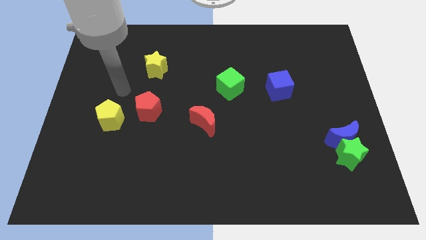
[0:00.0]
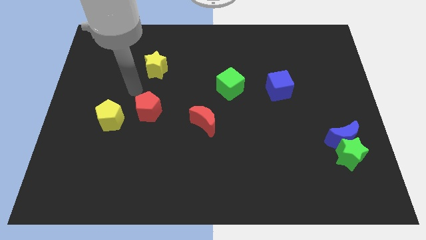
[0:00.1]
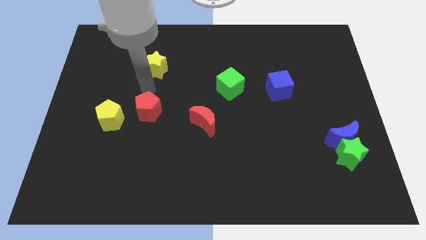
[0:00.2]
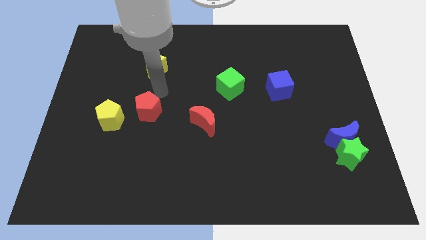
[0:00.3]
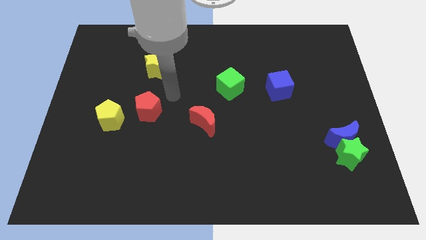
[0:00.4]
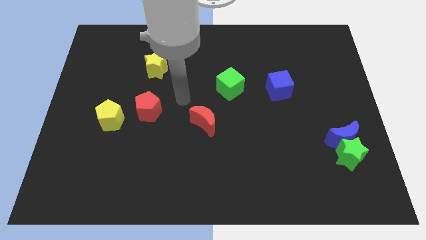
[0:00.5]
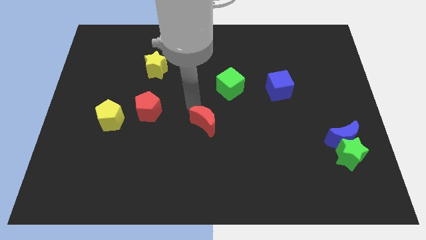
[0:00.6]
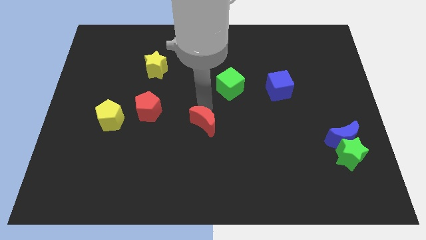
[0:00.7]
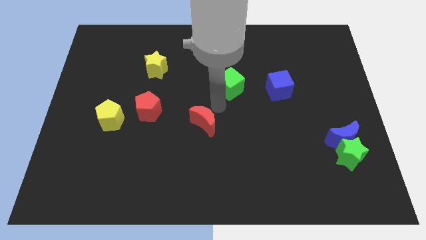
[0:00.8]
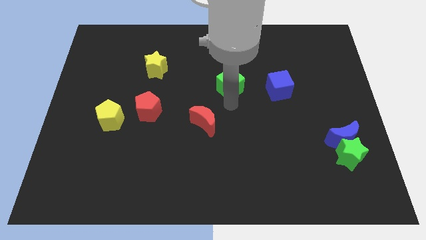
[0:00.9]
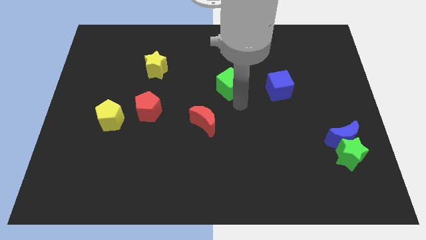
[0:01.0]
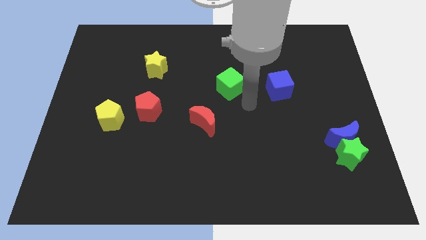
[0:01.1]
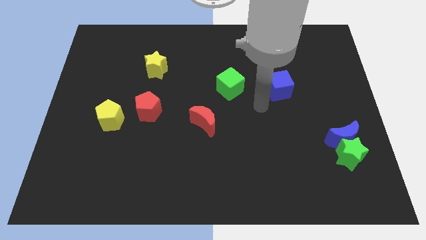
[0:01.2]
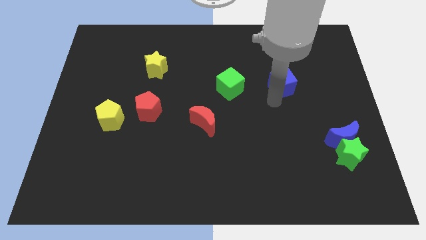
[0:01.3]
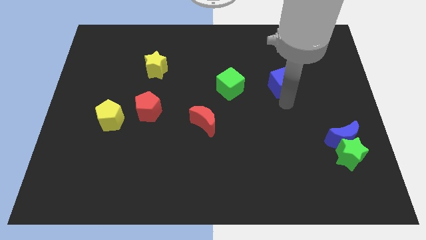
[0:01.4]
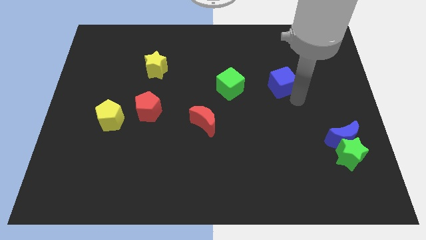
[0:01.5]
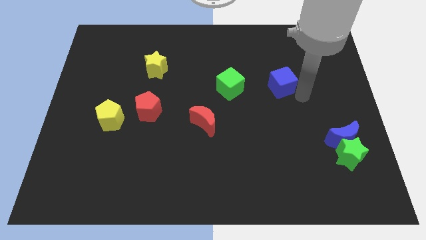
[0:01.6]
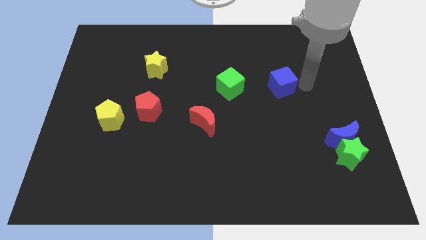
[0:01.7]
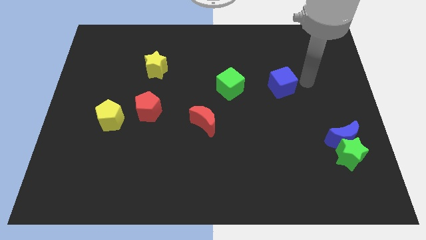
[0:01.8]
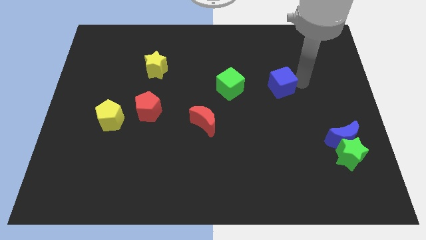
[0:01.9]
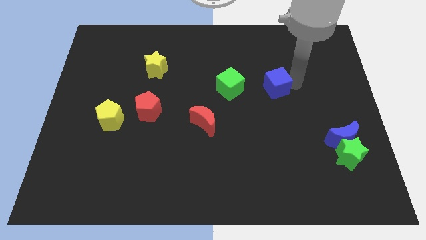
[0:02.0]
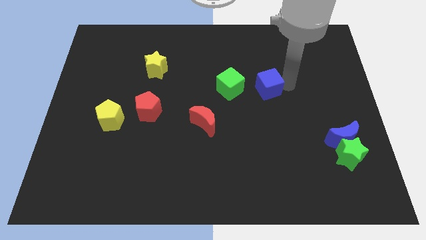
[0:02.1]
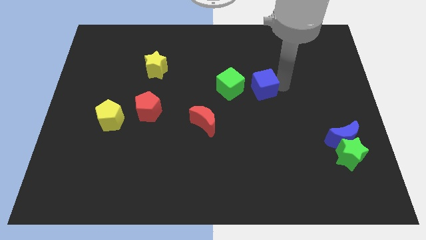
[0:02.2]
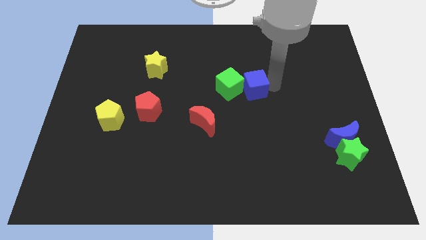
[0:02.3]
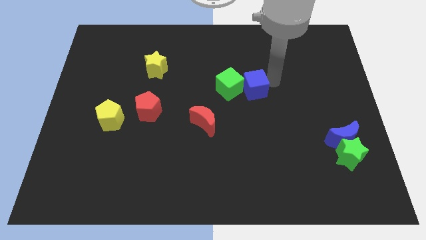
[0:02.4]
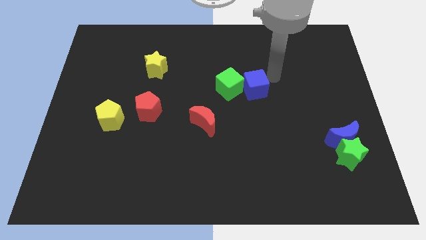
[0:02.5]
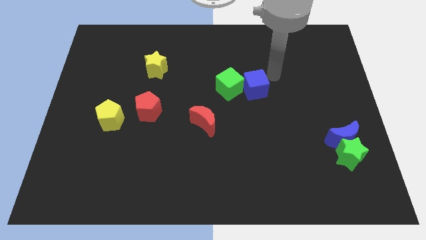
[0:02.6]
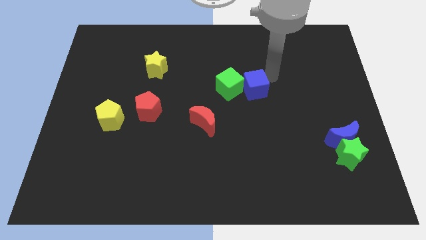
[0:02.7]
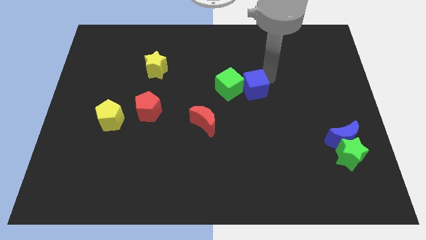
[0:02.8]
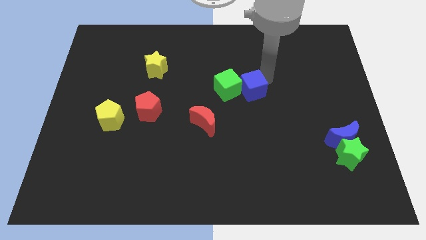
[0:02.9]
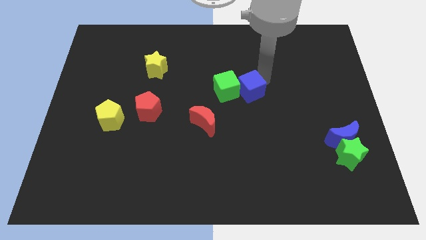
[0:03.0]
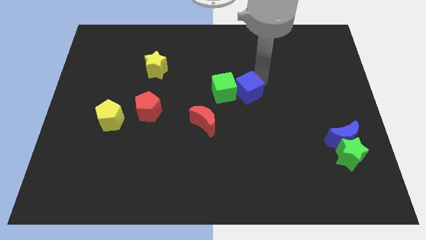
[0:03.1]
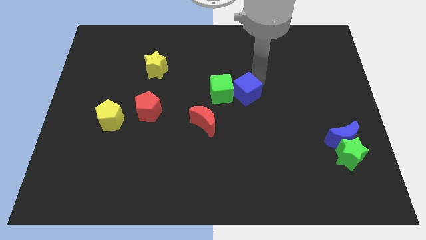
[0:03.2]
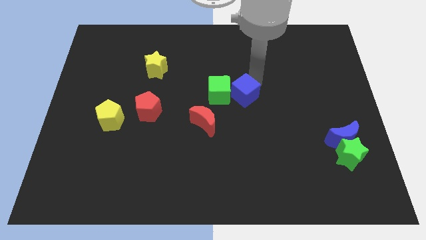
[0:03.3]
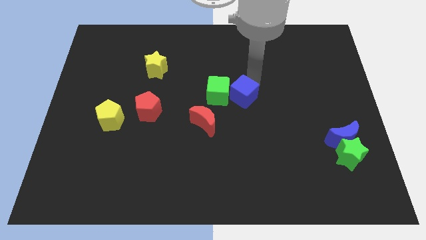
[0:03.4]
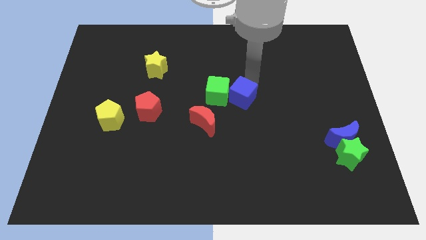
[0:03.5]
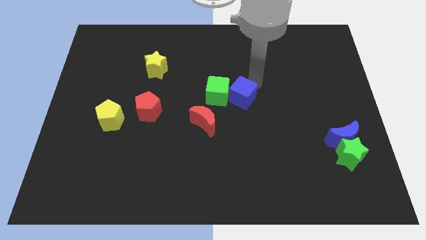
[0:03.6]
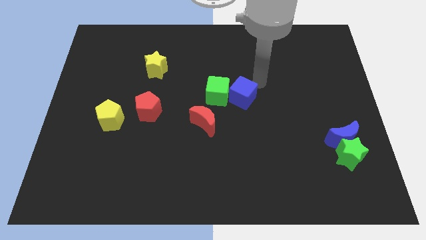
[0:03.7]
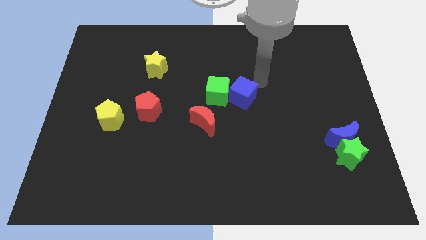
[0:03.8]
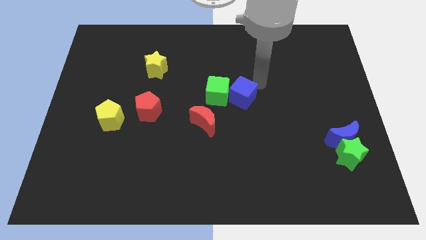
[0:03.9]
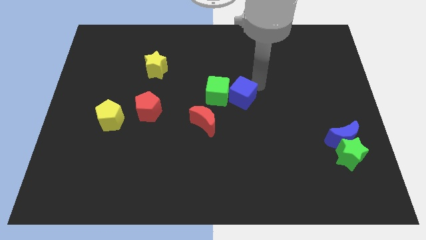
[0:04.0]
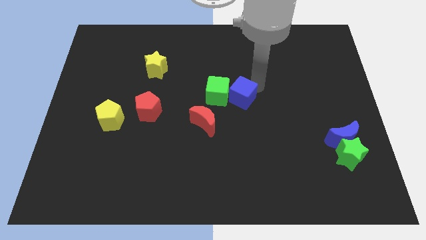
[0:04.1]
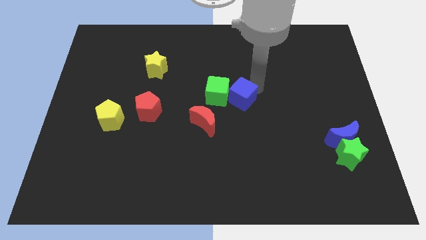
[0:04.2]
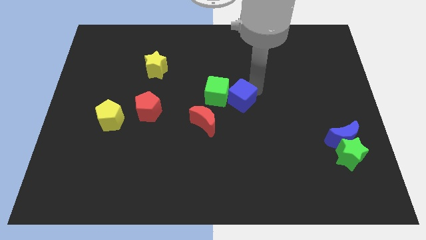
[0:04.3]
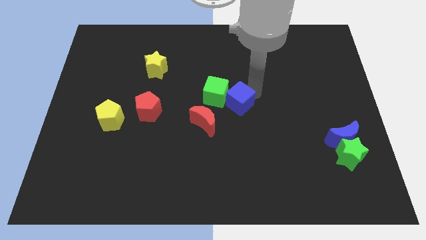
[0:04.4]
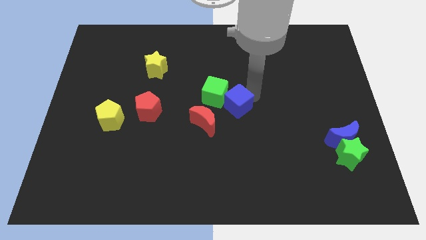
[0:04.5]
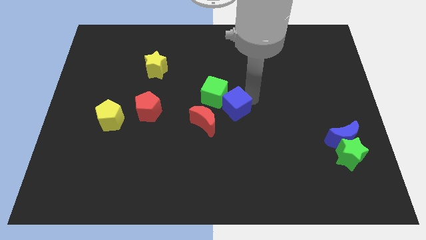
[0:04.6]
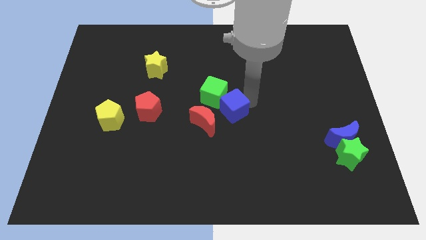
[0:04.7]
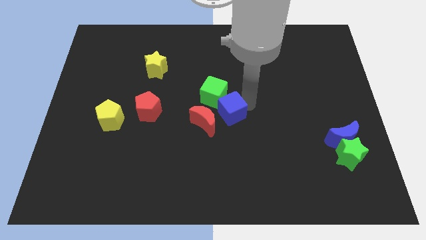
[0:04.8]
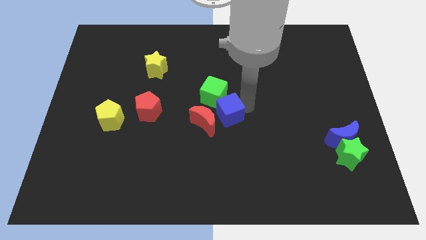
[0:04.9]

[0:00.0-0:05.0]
move the blue cube next to the red moon

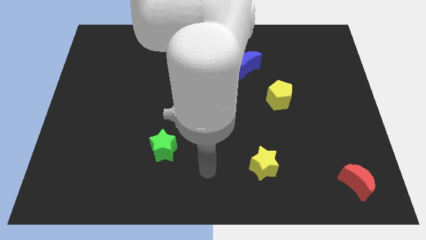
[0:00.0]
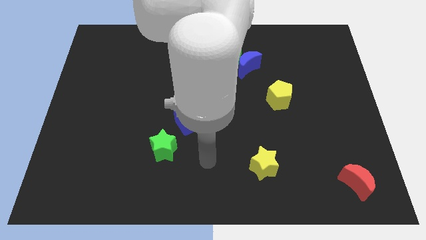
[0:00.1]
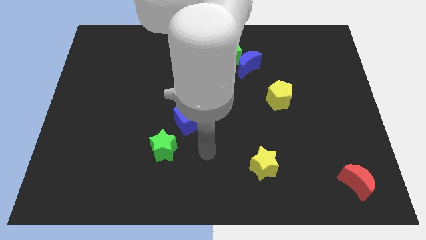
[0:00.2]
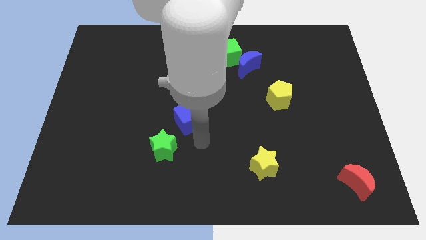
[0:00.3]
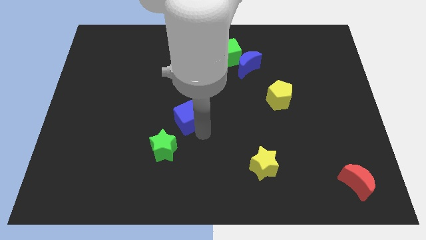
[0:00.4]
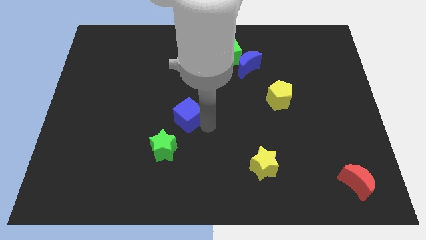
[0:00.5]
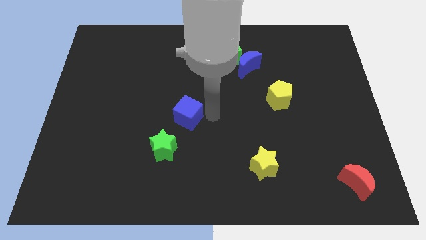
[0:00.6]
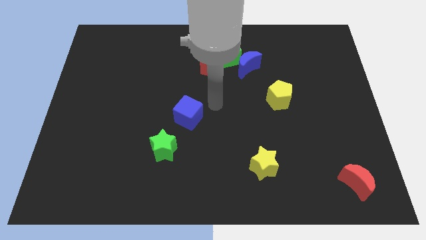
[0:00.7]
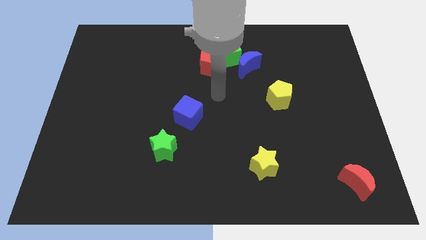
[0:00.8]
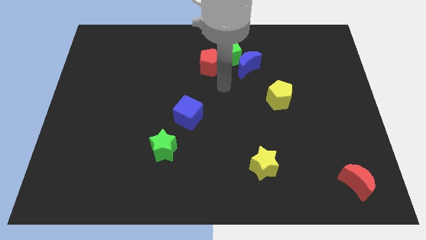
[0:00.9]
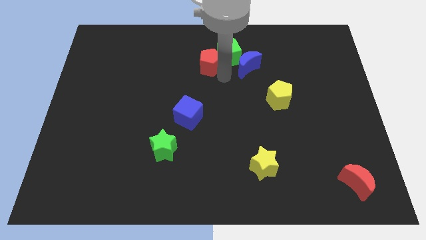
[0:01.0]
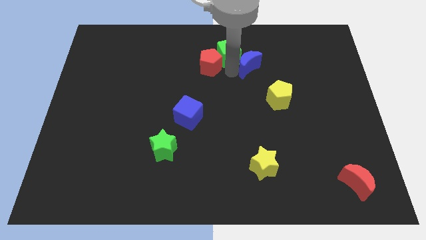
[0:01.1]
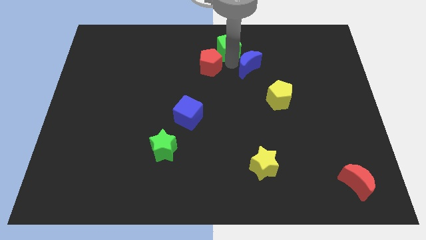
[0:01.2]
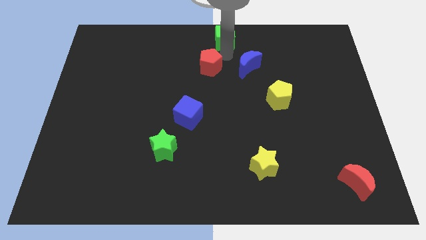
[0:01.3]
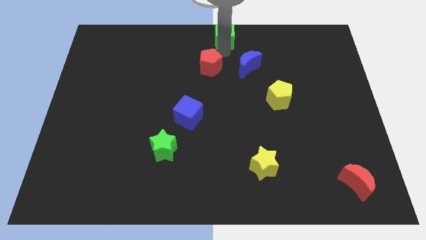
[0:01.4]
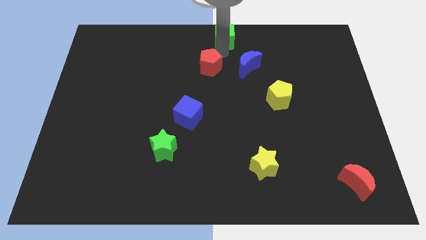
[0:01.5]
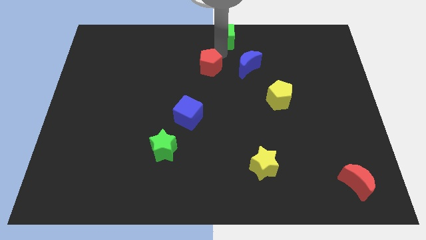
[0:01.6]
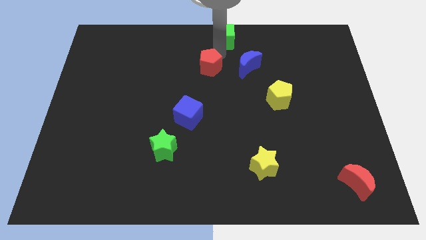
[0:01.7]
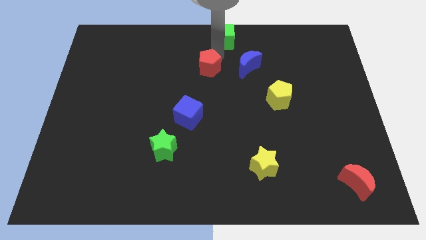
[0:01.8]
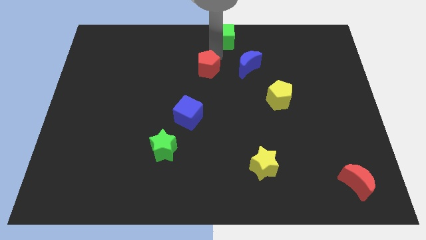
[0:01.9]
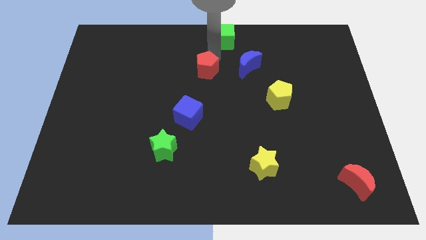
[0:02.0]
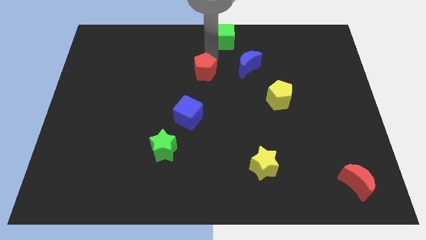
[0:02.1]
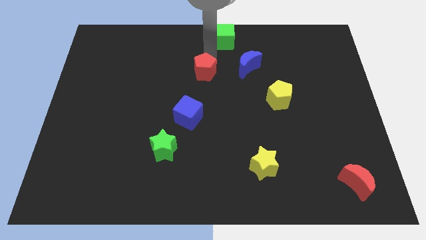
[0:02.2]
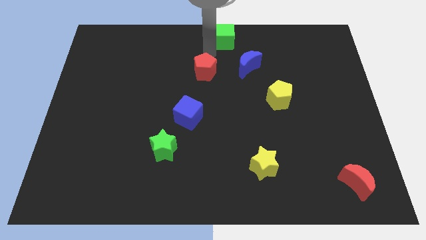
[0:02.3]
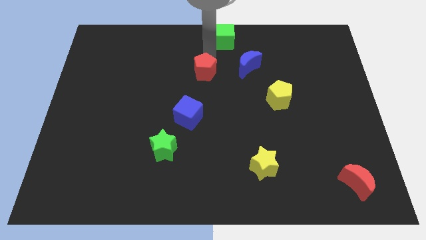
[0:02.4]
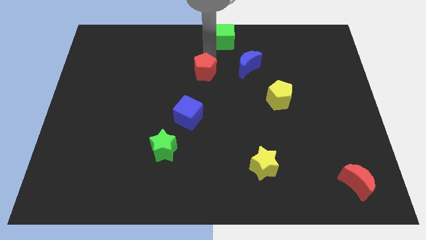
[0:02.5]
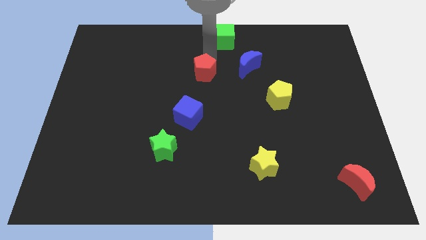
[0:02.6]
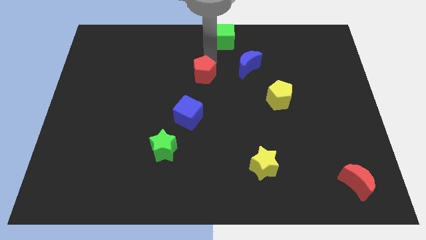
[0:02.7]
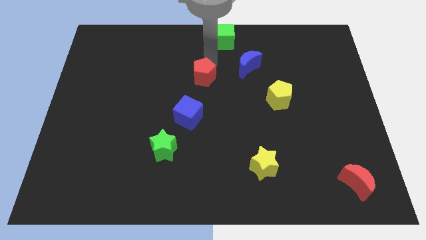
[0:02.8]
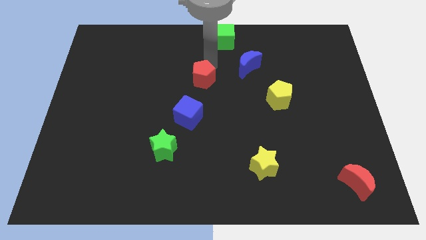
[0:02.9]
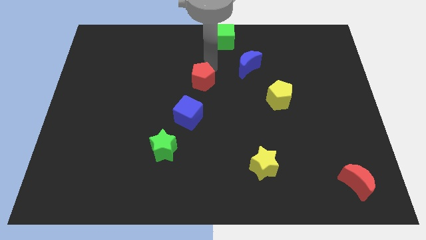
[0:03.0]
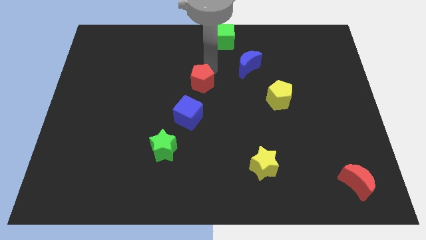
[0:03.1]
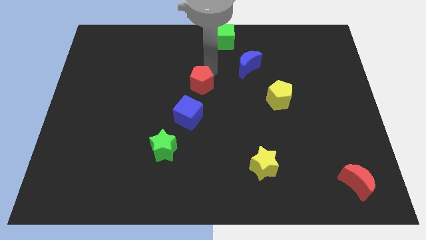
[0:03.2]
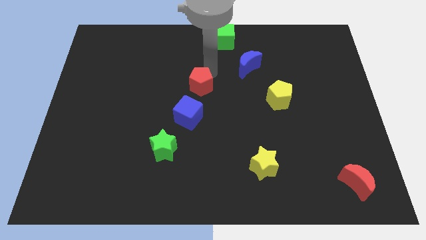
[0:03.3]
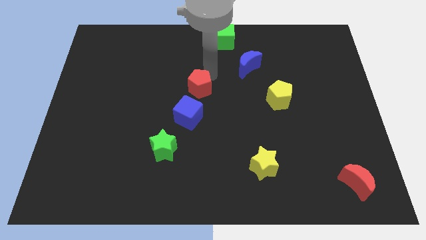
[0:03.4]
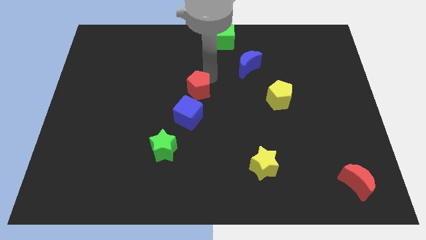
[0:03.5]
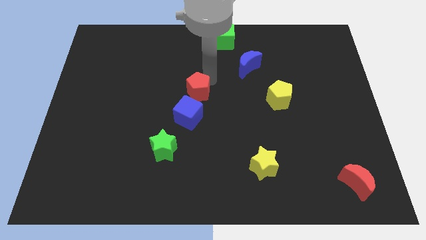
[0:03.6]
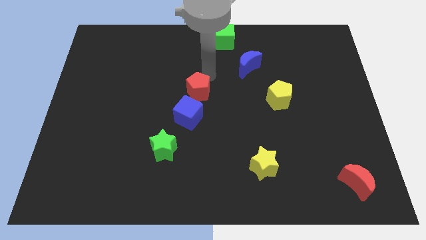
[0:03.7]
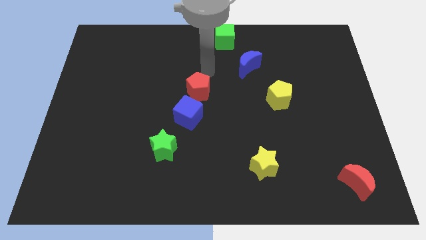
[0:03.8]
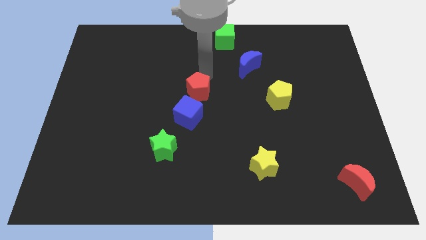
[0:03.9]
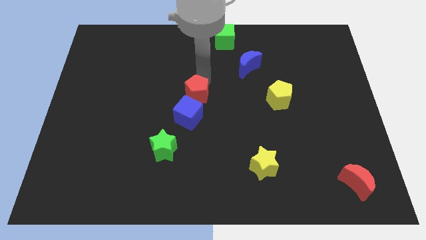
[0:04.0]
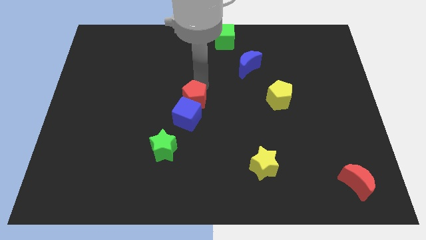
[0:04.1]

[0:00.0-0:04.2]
move the red pentagon next to the blue cube
